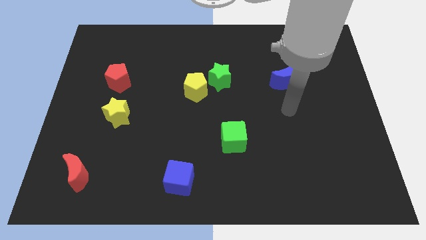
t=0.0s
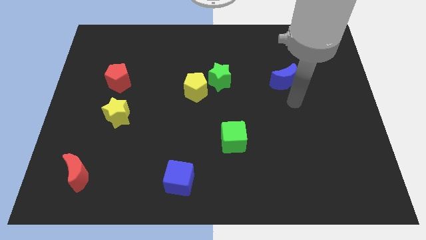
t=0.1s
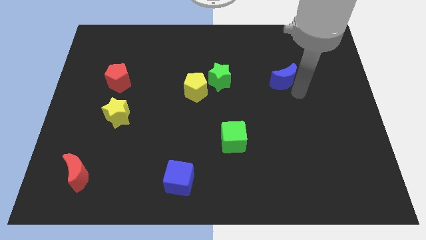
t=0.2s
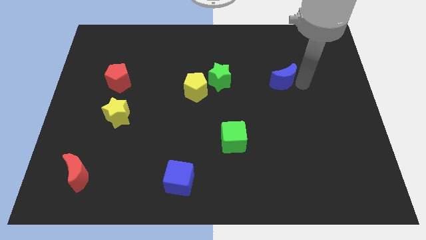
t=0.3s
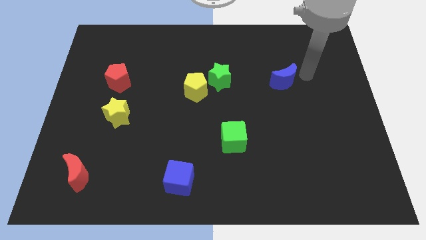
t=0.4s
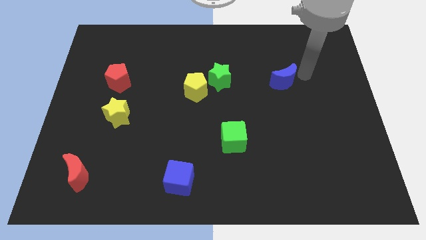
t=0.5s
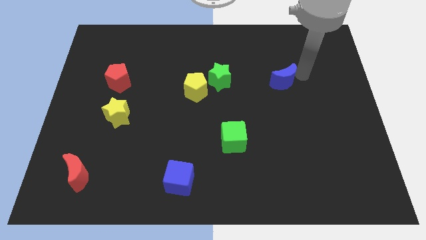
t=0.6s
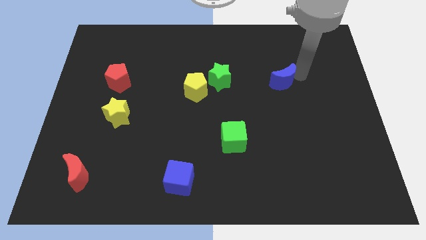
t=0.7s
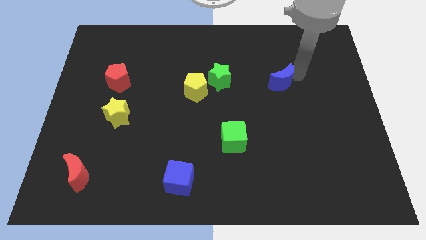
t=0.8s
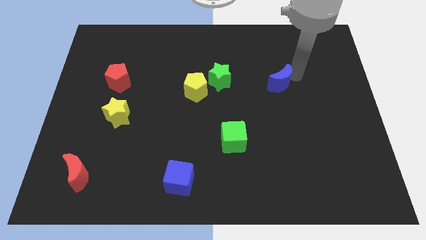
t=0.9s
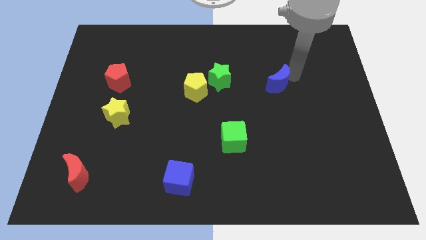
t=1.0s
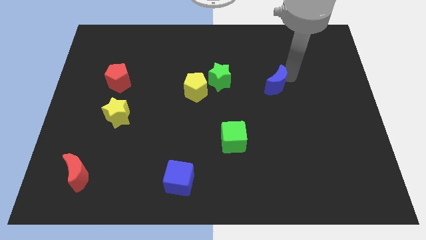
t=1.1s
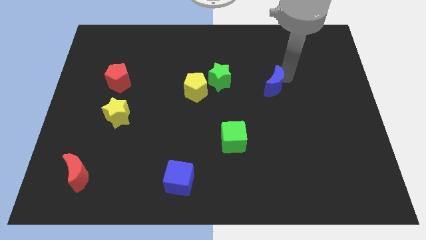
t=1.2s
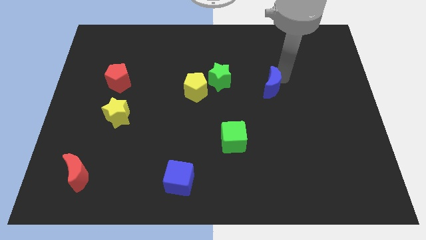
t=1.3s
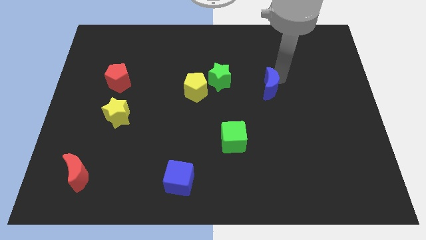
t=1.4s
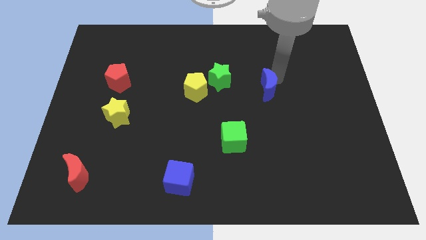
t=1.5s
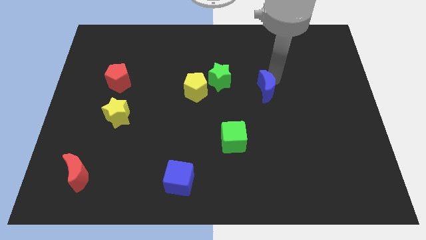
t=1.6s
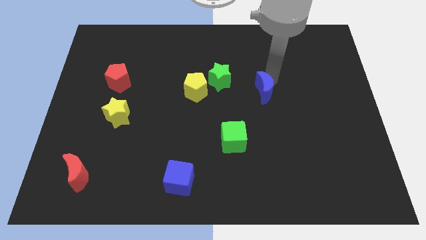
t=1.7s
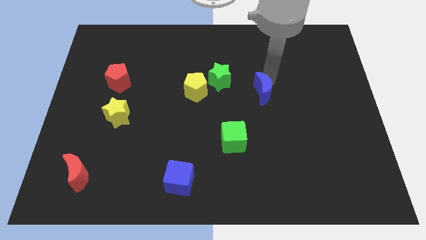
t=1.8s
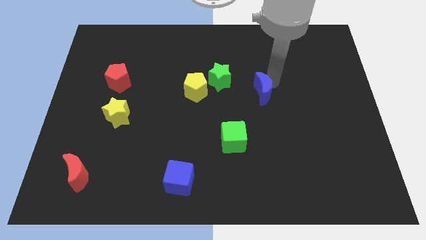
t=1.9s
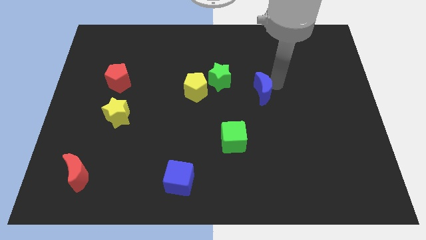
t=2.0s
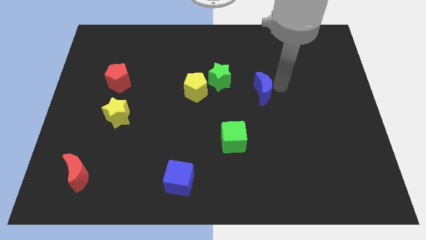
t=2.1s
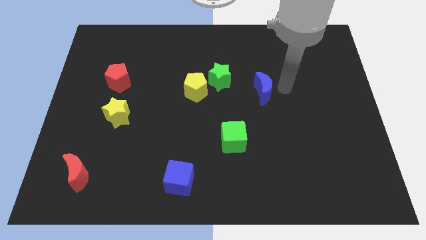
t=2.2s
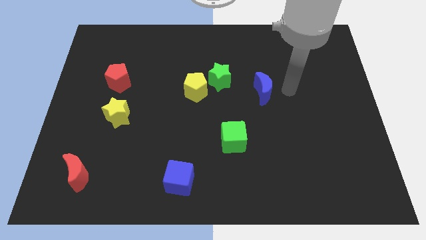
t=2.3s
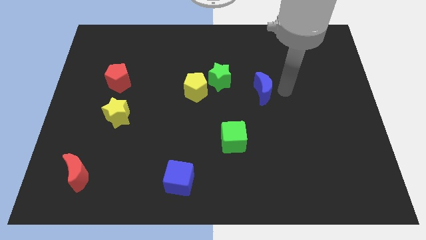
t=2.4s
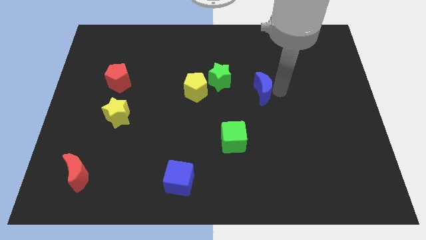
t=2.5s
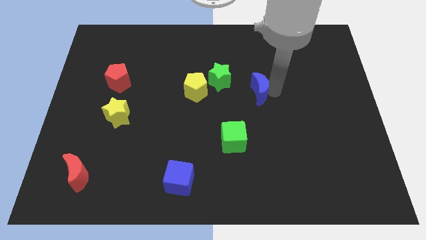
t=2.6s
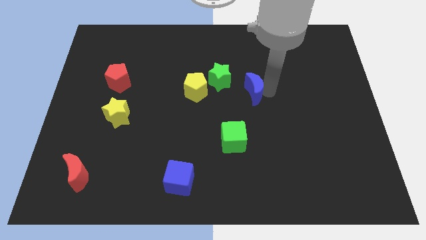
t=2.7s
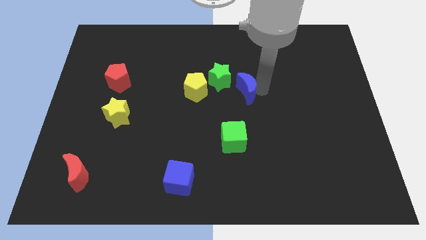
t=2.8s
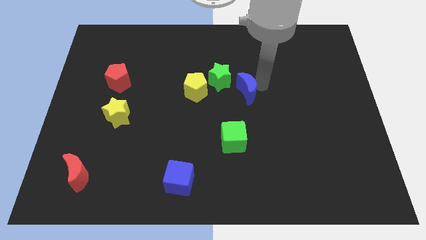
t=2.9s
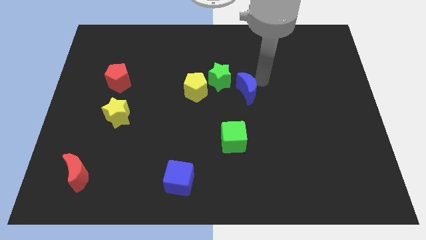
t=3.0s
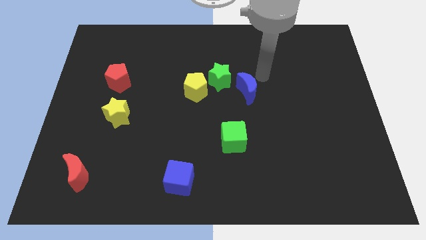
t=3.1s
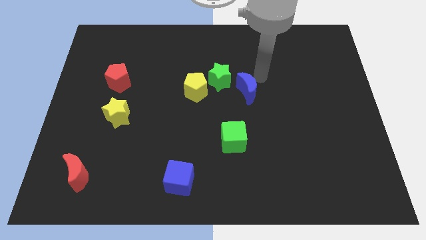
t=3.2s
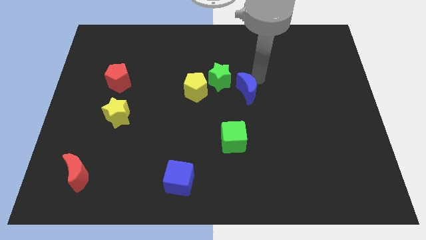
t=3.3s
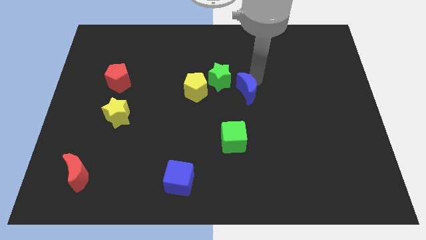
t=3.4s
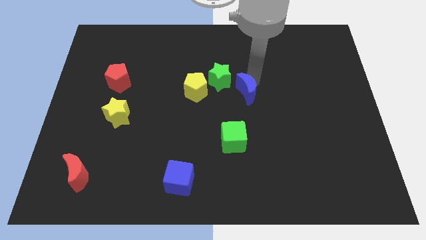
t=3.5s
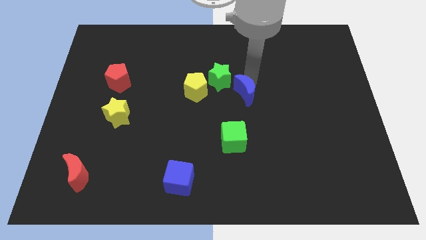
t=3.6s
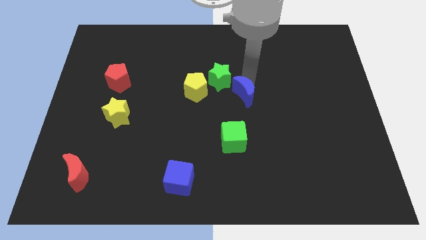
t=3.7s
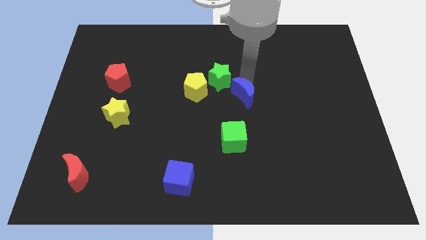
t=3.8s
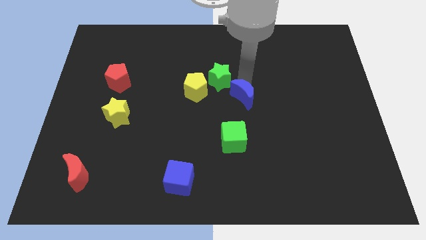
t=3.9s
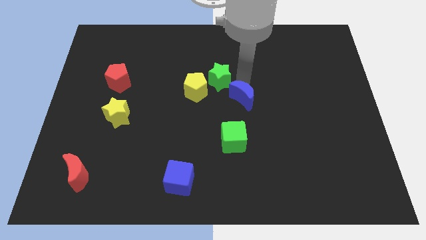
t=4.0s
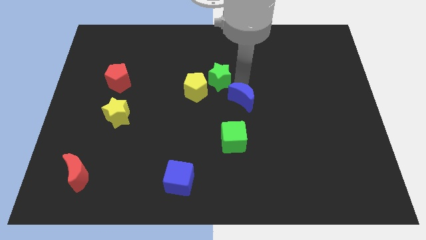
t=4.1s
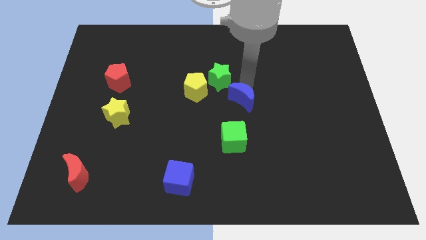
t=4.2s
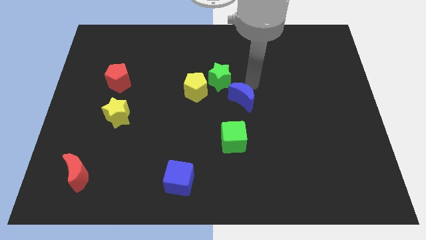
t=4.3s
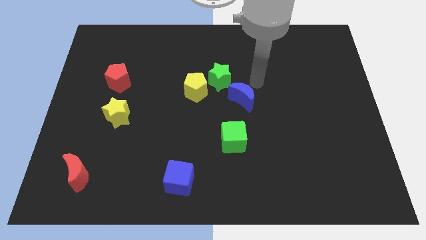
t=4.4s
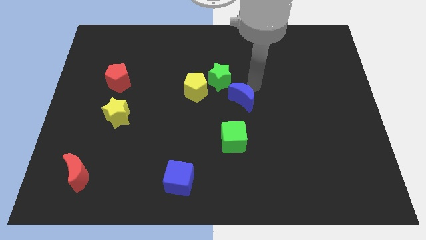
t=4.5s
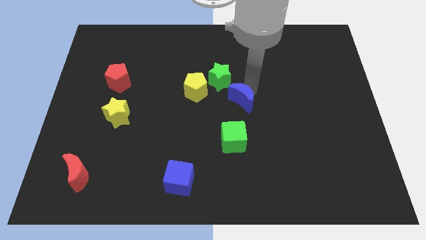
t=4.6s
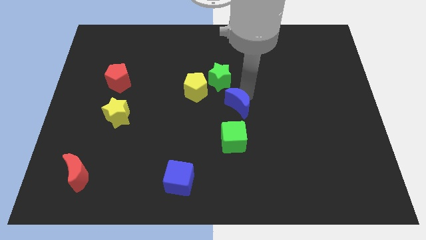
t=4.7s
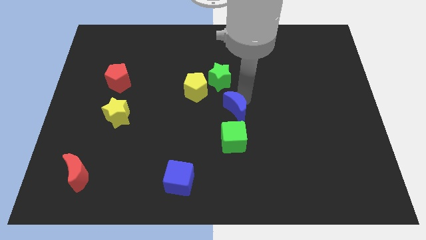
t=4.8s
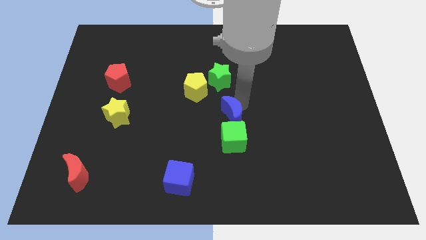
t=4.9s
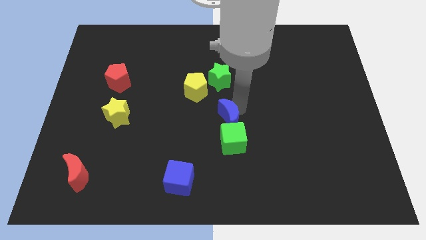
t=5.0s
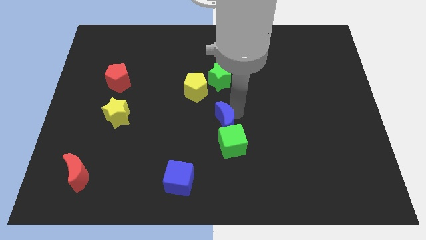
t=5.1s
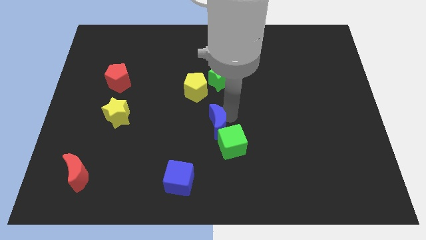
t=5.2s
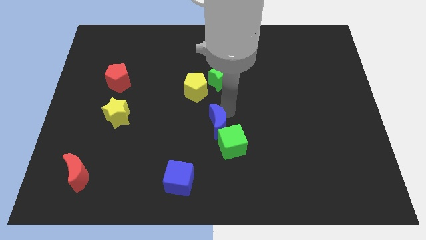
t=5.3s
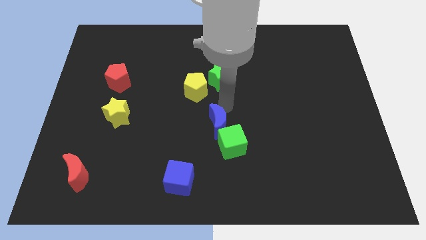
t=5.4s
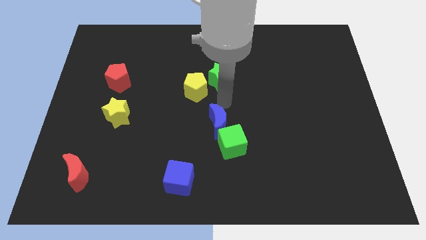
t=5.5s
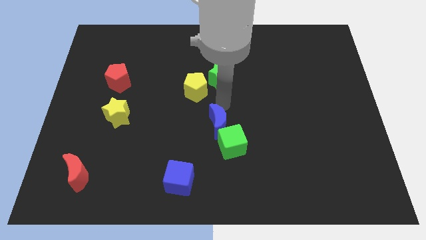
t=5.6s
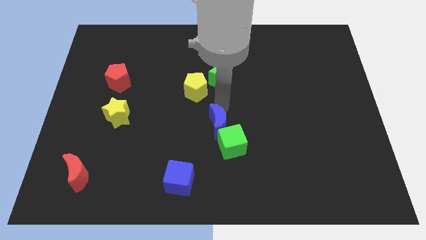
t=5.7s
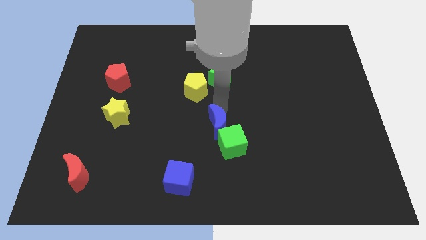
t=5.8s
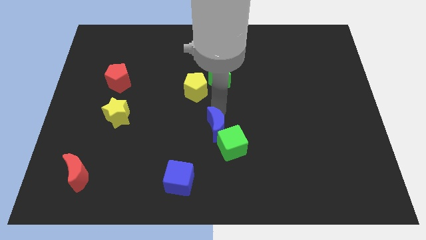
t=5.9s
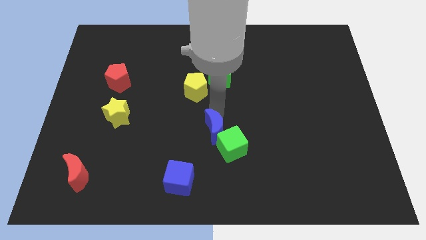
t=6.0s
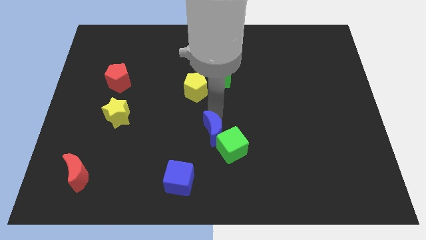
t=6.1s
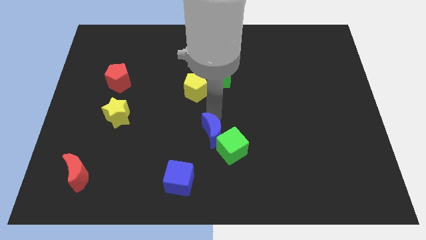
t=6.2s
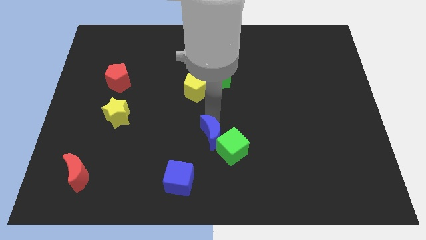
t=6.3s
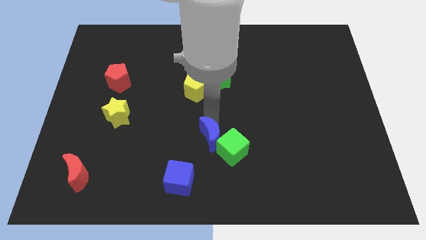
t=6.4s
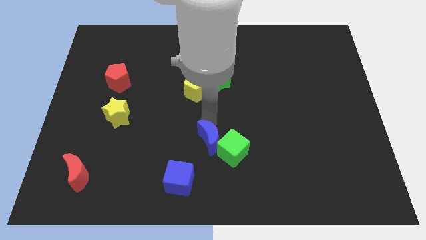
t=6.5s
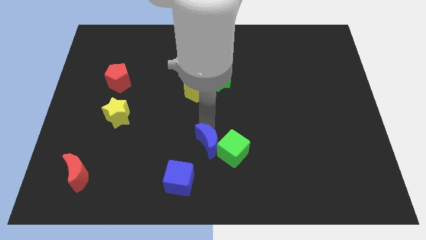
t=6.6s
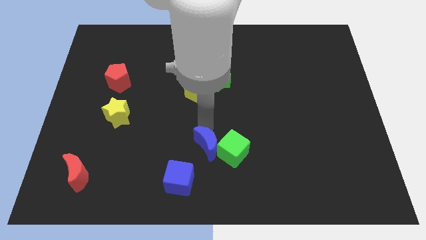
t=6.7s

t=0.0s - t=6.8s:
slide the blue moon to the bottom left side of the green cube
